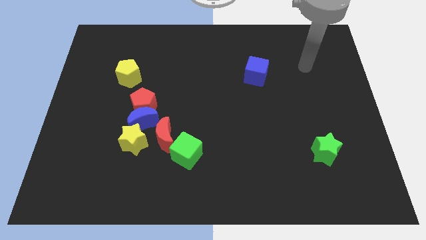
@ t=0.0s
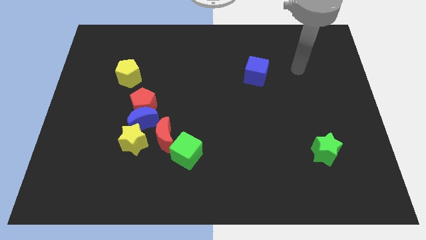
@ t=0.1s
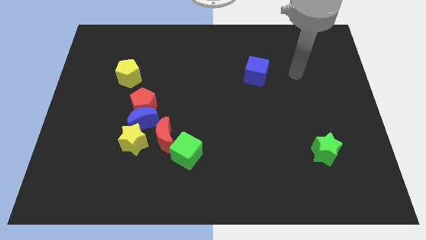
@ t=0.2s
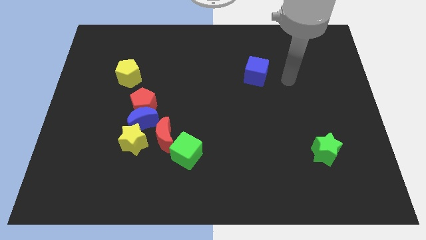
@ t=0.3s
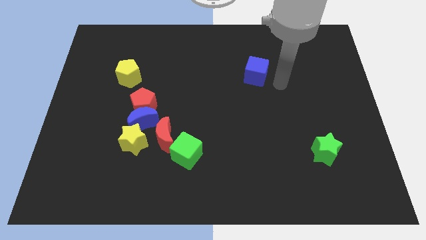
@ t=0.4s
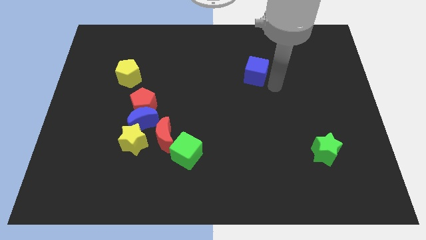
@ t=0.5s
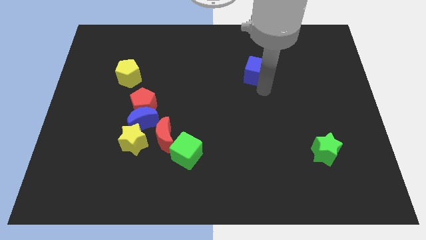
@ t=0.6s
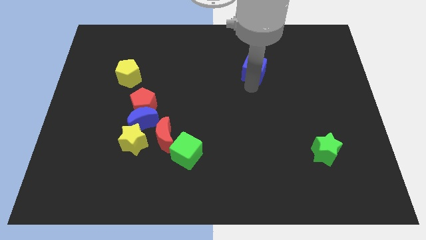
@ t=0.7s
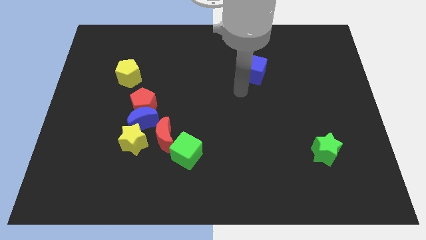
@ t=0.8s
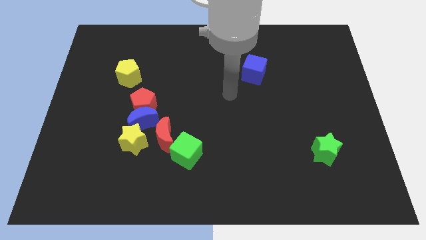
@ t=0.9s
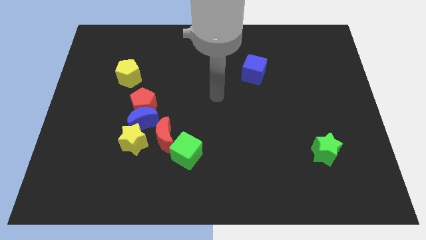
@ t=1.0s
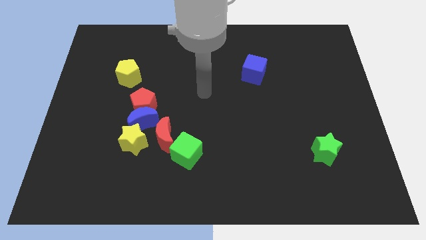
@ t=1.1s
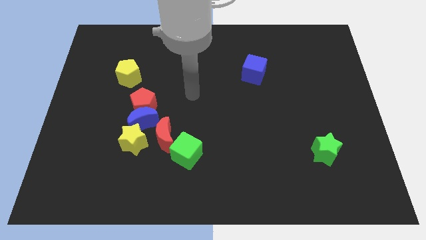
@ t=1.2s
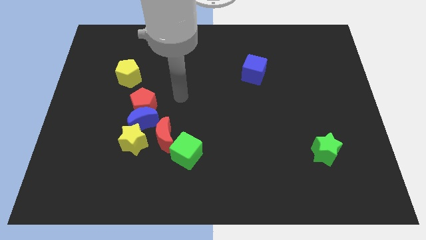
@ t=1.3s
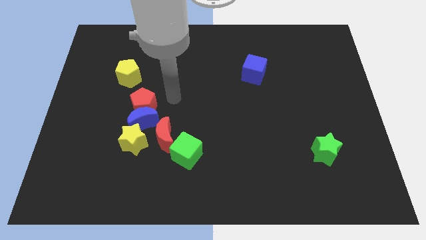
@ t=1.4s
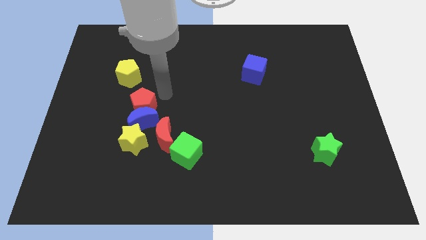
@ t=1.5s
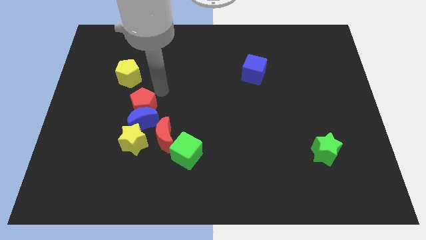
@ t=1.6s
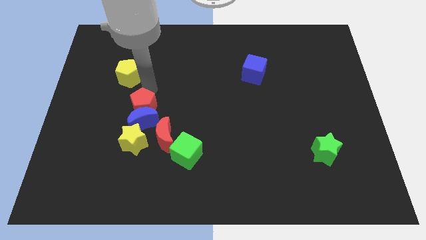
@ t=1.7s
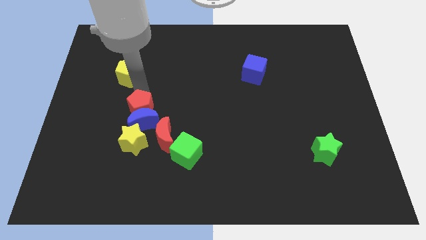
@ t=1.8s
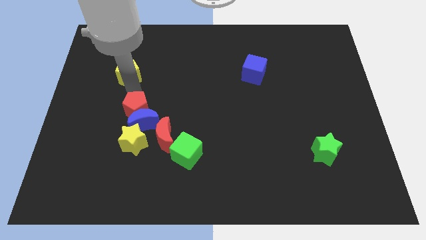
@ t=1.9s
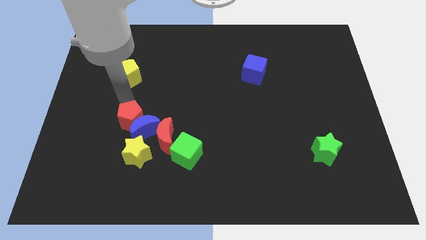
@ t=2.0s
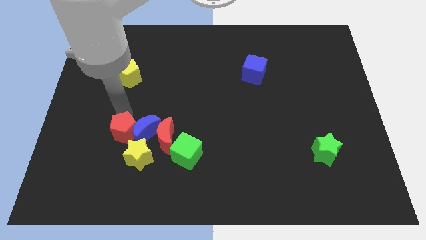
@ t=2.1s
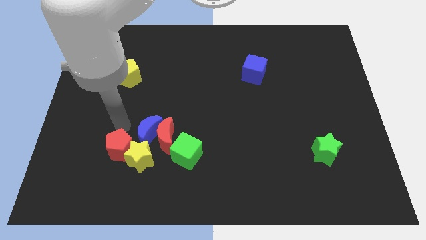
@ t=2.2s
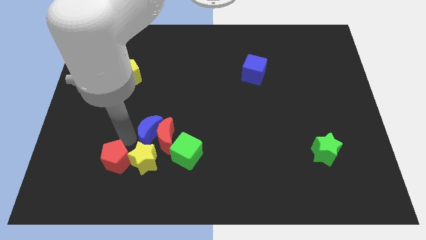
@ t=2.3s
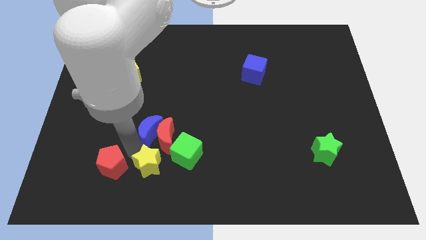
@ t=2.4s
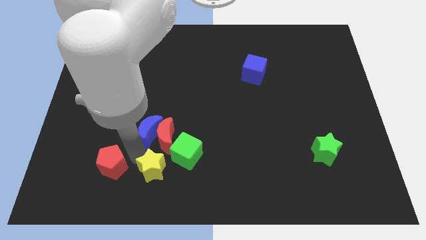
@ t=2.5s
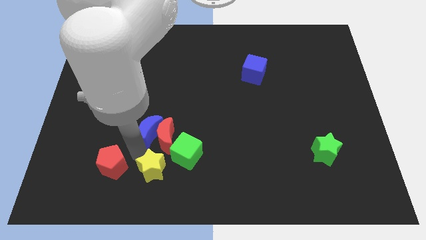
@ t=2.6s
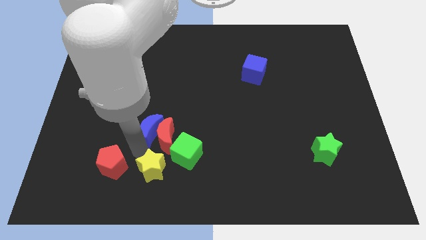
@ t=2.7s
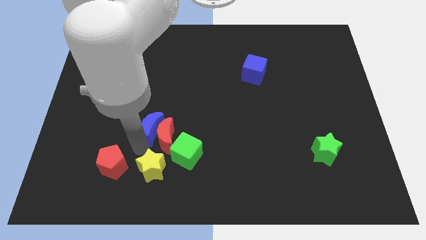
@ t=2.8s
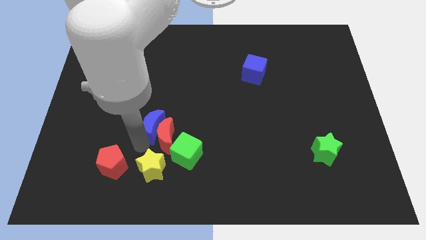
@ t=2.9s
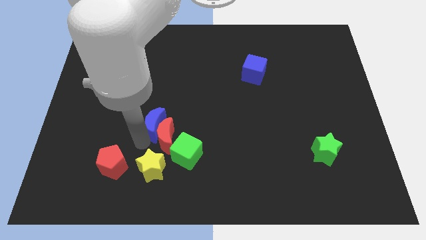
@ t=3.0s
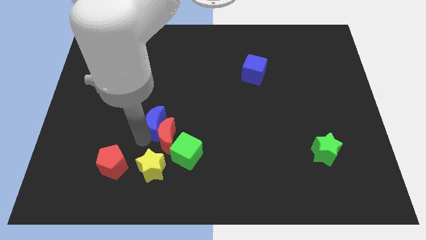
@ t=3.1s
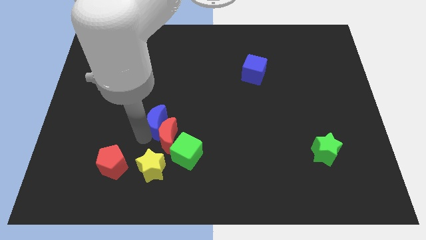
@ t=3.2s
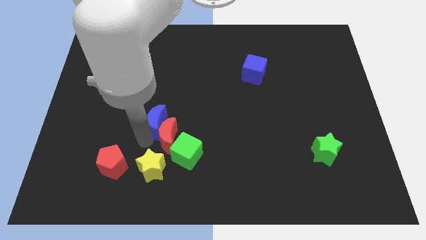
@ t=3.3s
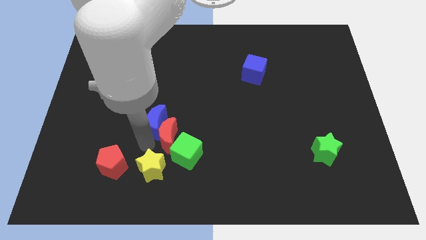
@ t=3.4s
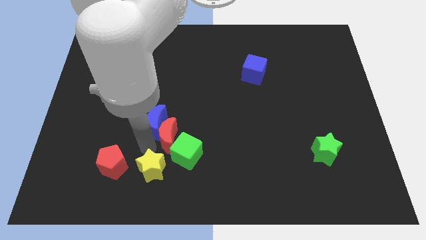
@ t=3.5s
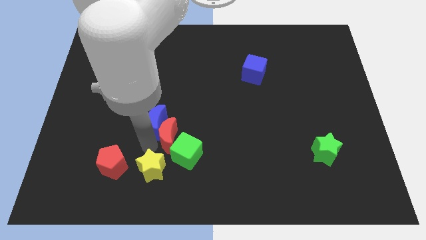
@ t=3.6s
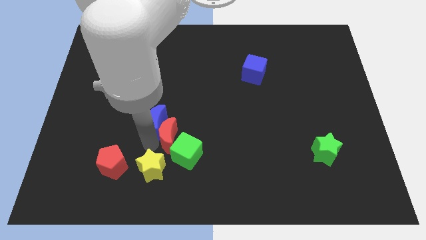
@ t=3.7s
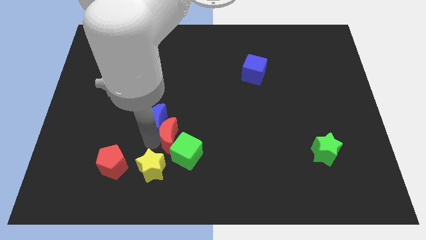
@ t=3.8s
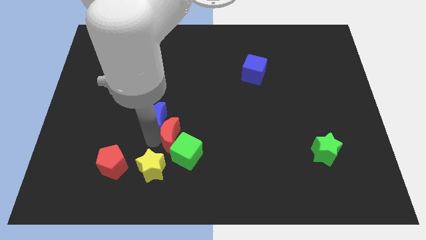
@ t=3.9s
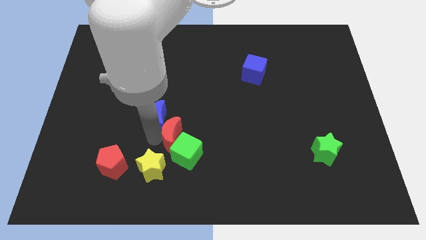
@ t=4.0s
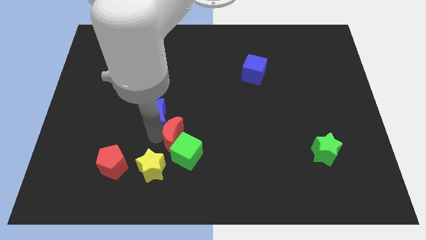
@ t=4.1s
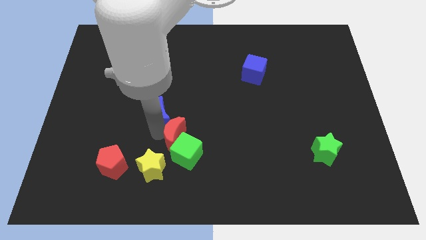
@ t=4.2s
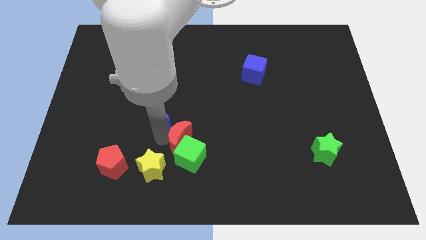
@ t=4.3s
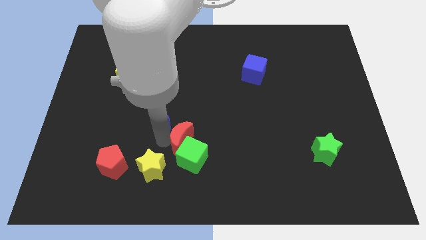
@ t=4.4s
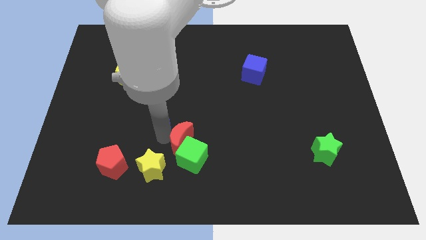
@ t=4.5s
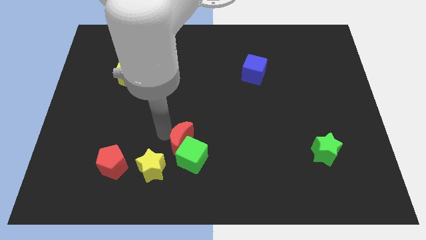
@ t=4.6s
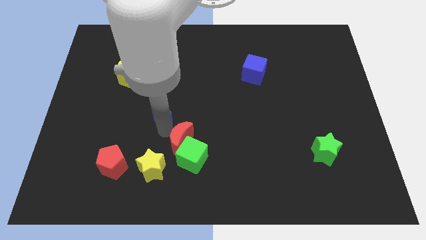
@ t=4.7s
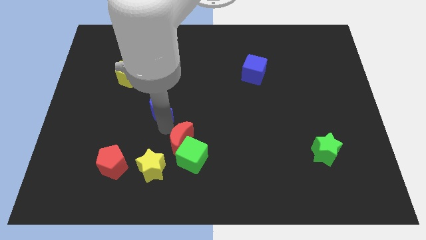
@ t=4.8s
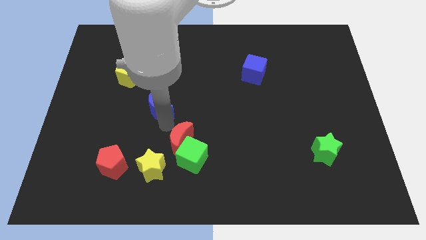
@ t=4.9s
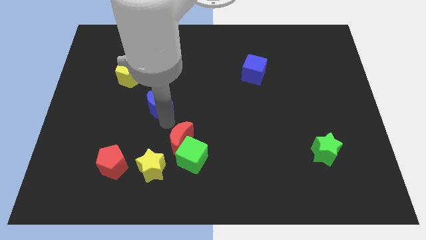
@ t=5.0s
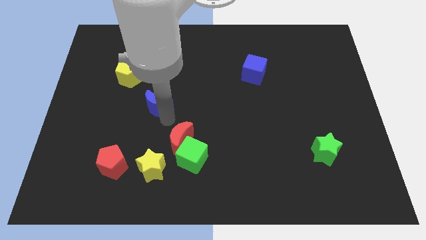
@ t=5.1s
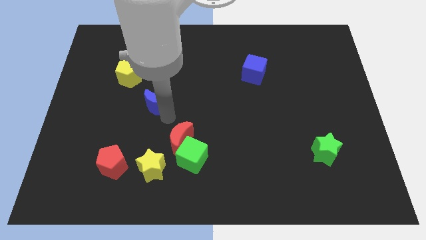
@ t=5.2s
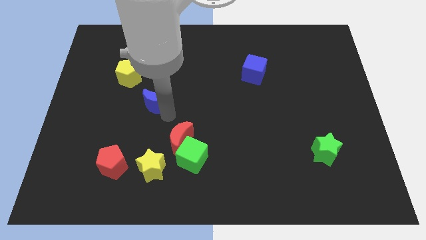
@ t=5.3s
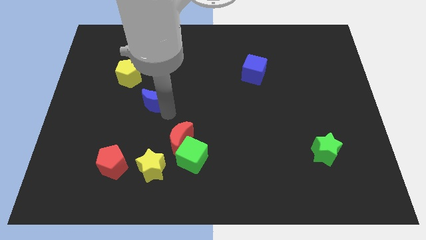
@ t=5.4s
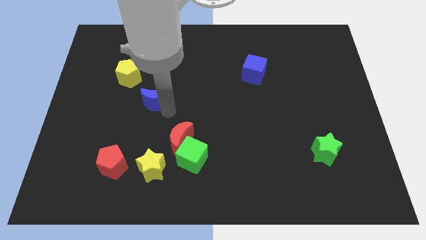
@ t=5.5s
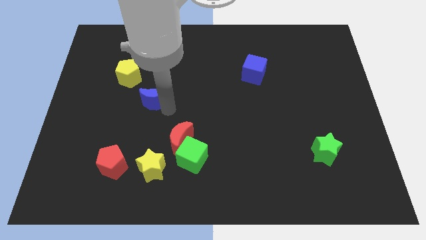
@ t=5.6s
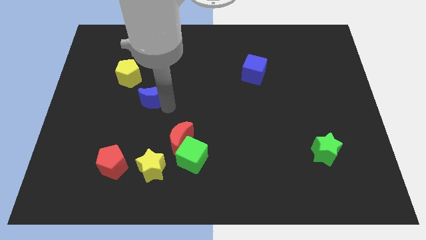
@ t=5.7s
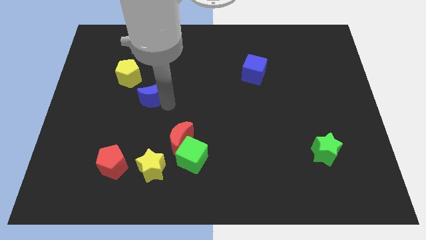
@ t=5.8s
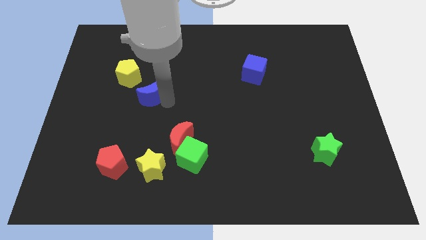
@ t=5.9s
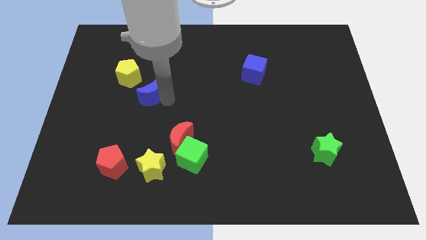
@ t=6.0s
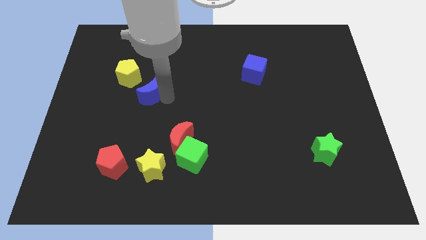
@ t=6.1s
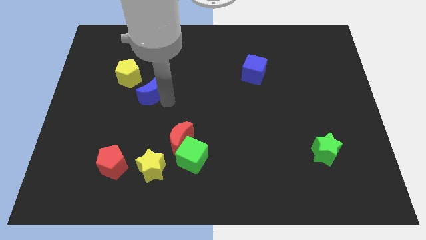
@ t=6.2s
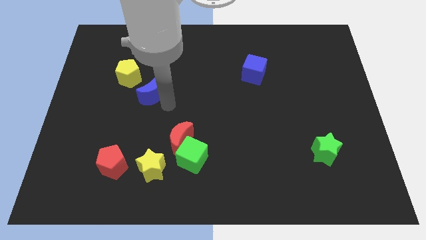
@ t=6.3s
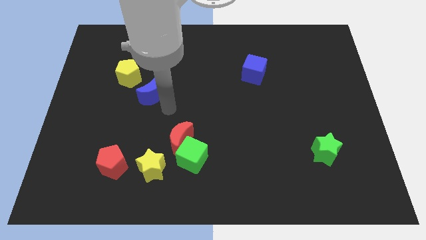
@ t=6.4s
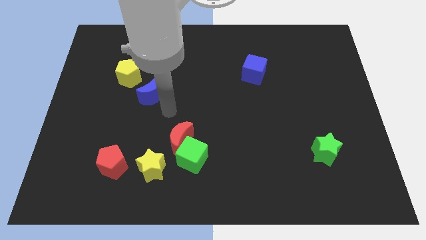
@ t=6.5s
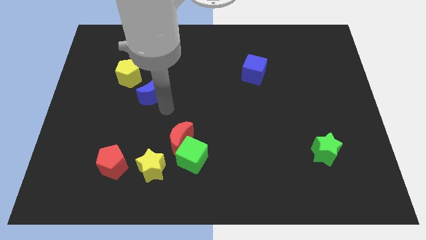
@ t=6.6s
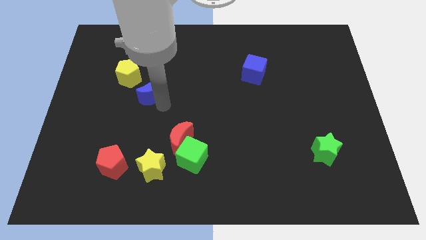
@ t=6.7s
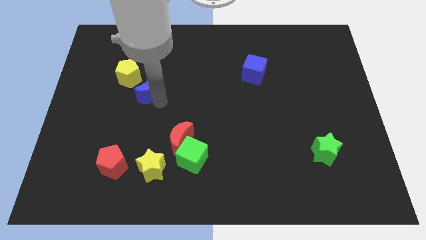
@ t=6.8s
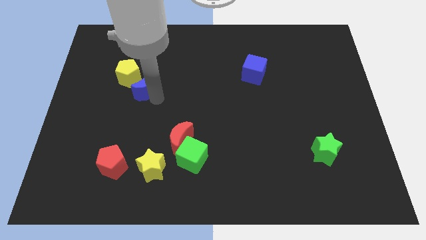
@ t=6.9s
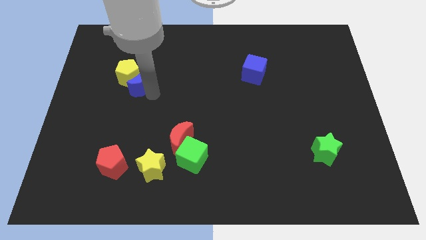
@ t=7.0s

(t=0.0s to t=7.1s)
move the blue moon towards the yellow pentagon
